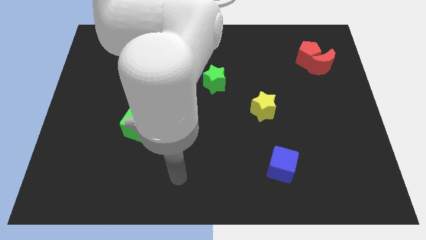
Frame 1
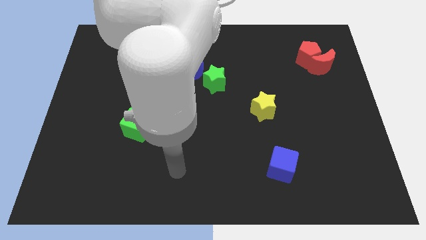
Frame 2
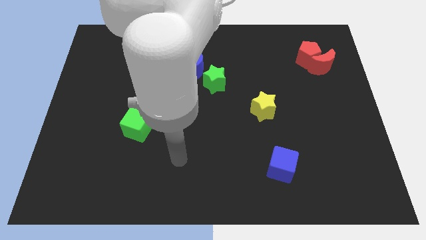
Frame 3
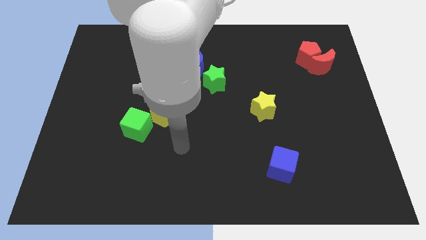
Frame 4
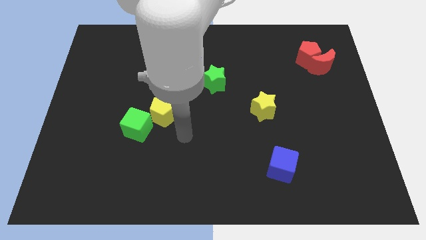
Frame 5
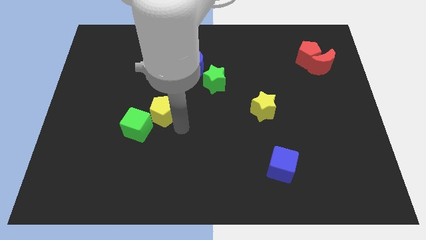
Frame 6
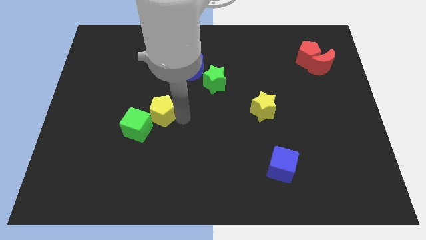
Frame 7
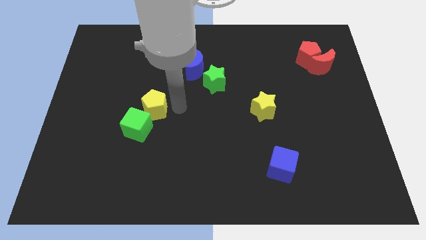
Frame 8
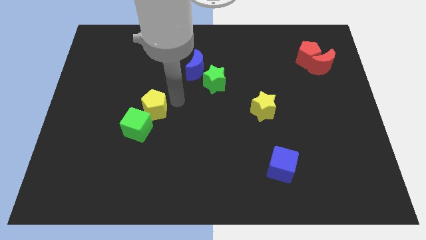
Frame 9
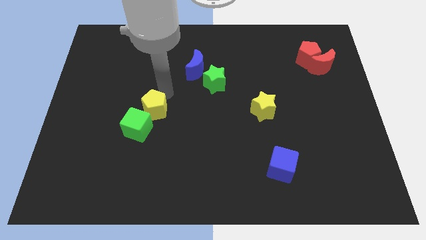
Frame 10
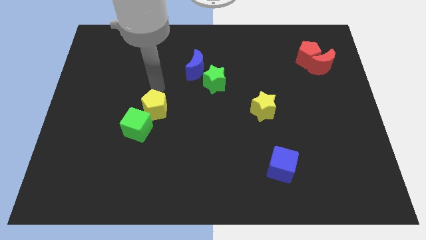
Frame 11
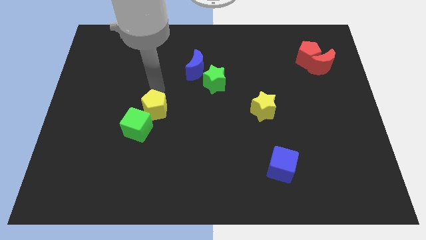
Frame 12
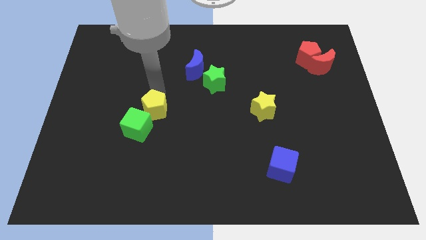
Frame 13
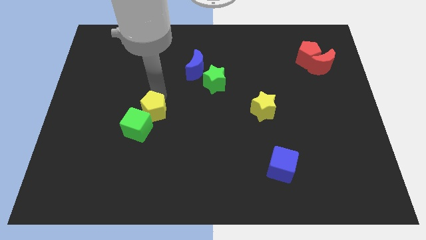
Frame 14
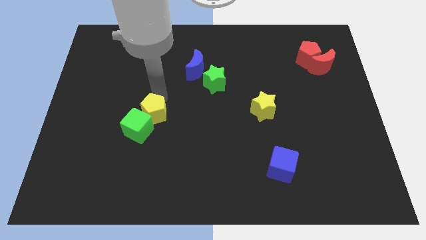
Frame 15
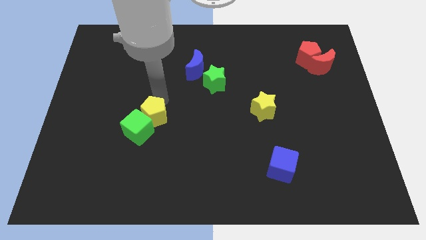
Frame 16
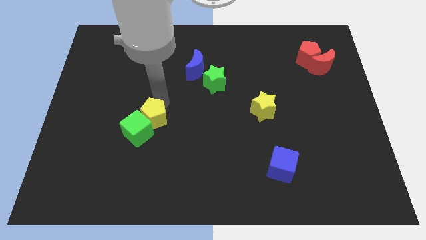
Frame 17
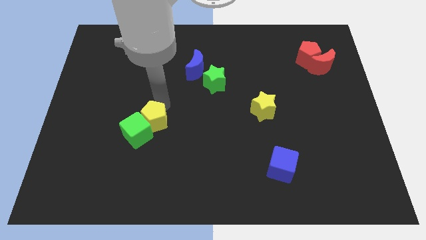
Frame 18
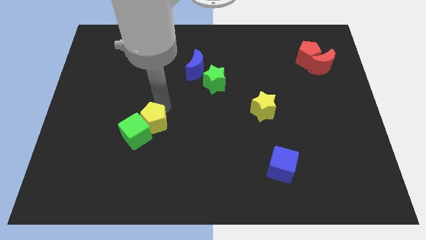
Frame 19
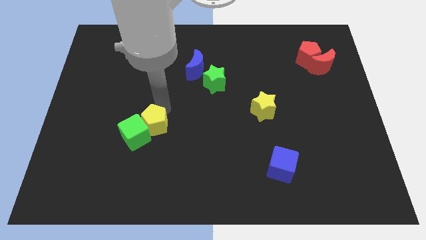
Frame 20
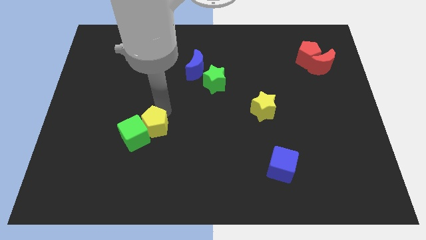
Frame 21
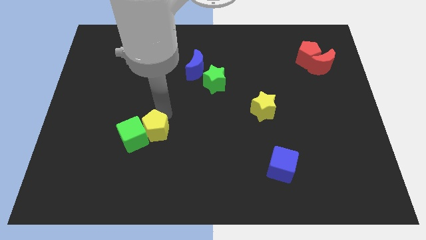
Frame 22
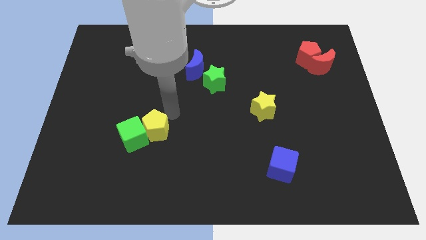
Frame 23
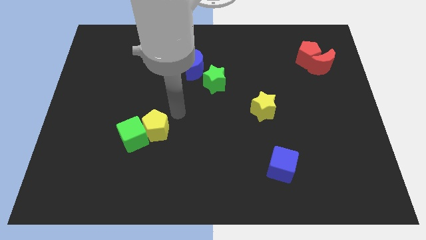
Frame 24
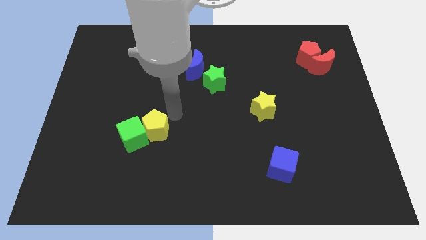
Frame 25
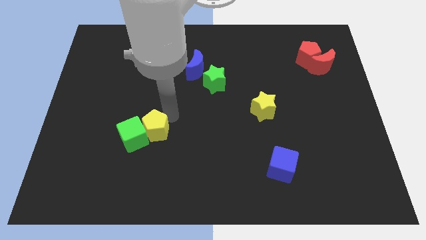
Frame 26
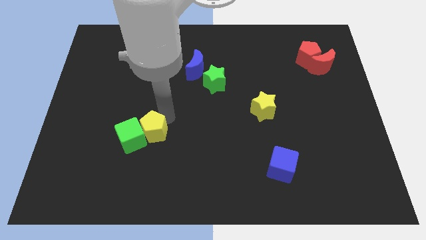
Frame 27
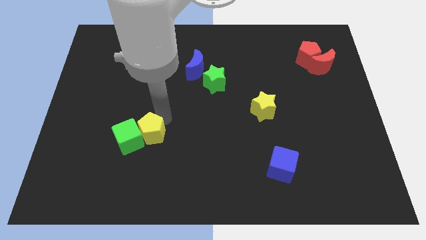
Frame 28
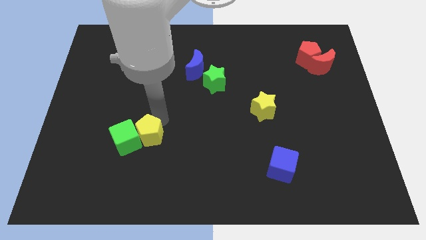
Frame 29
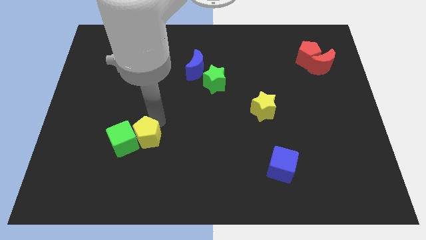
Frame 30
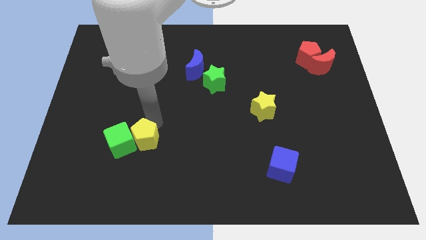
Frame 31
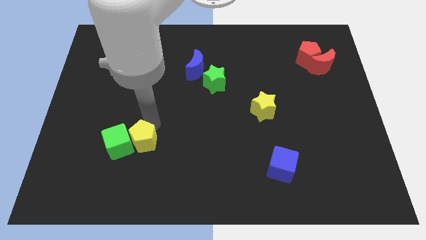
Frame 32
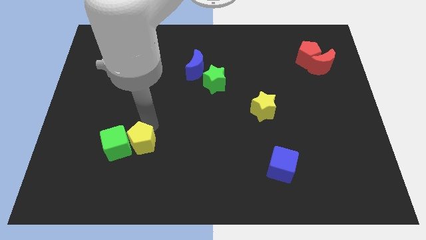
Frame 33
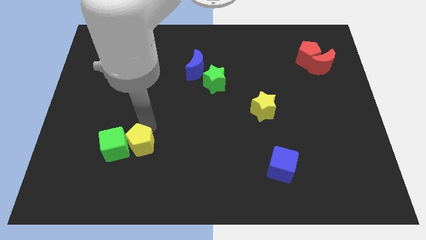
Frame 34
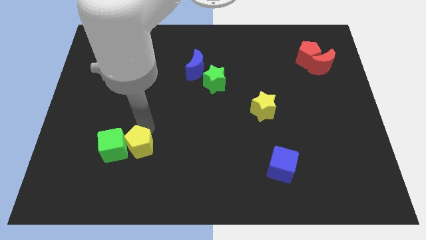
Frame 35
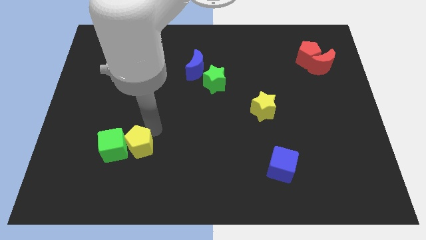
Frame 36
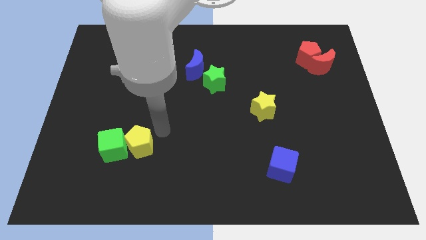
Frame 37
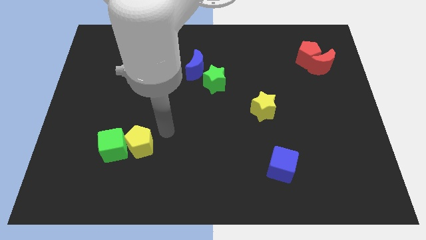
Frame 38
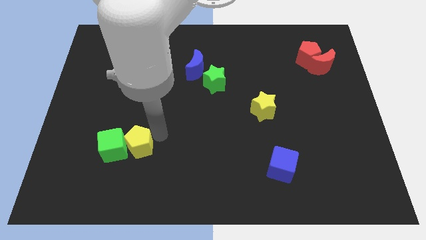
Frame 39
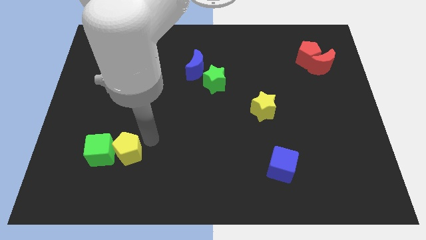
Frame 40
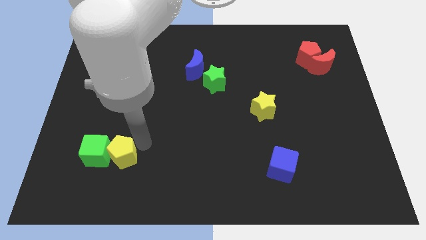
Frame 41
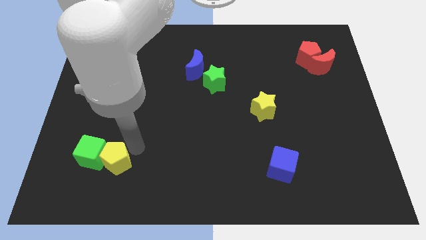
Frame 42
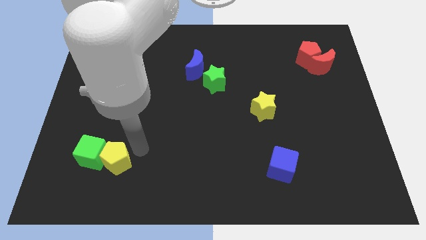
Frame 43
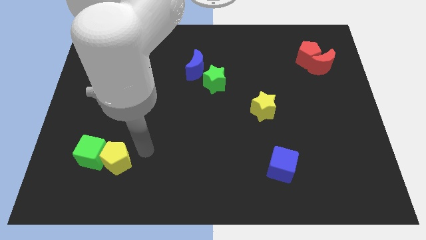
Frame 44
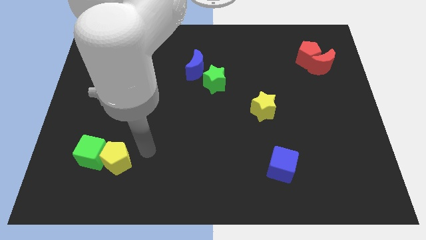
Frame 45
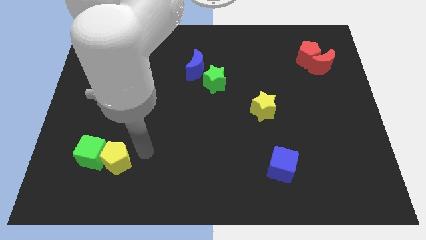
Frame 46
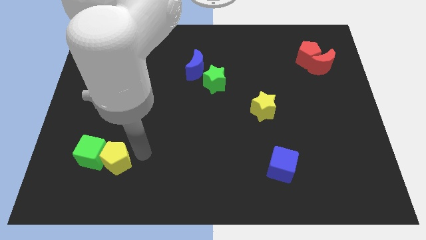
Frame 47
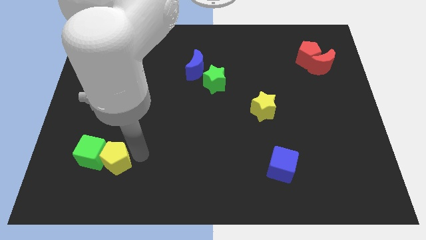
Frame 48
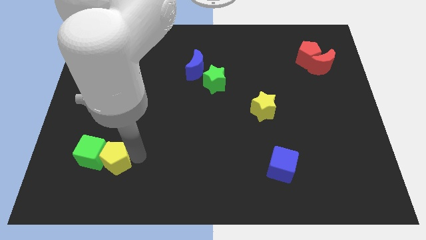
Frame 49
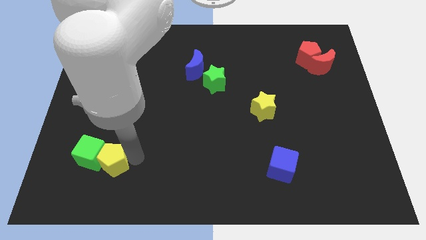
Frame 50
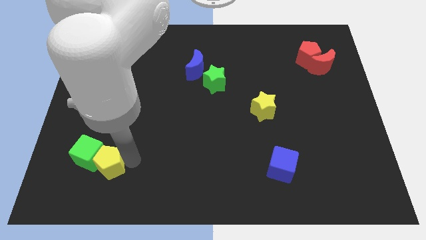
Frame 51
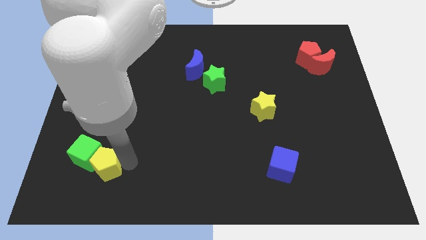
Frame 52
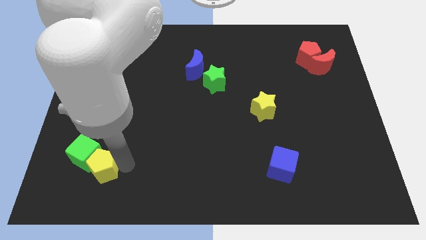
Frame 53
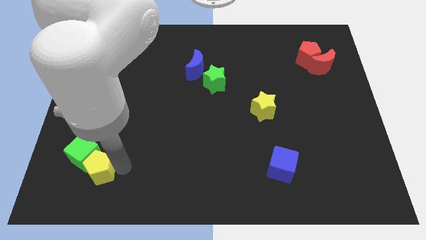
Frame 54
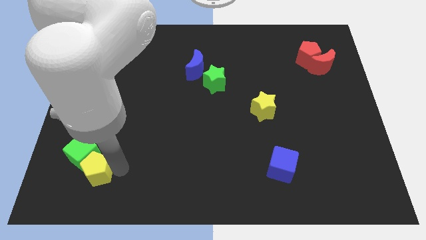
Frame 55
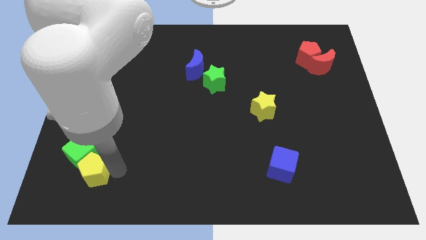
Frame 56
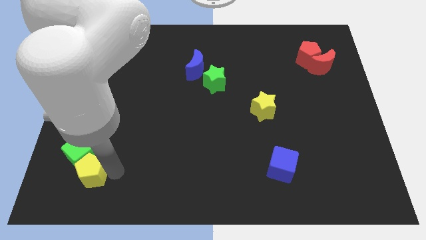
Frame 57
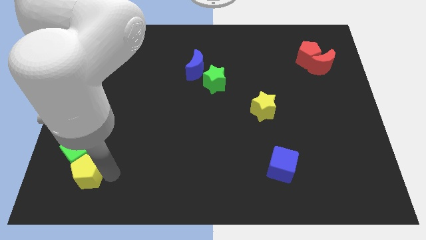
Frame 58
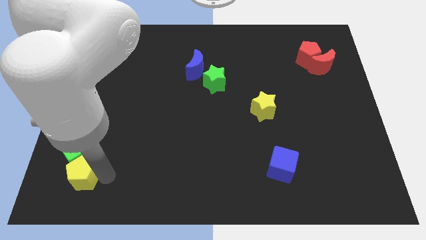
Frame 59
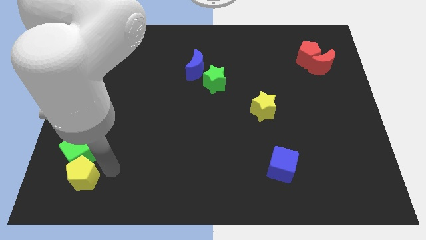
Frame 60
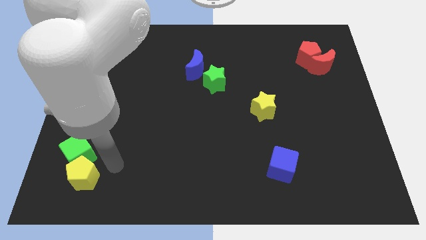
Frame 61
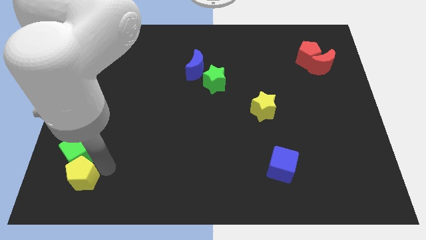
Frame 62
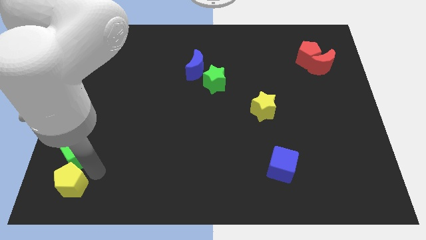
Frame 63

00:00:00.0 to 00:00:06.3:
push the yellow pentagon to the bottom left of the board
